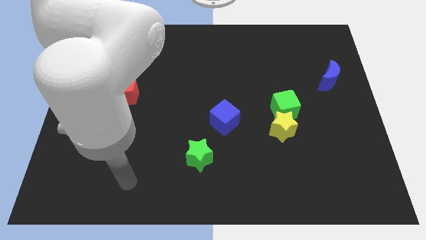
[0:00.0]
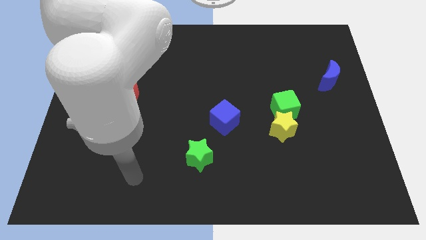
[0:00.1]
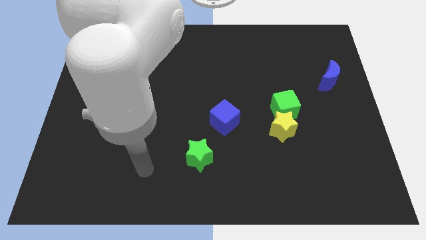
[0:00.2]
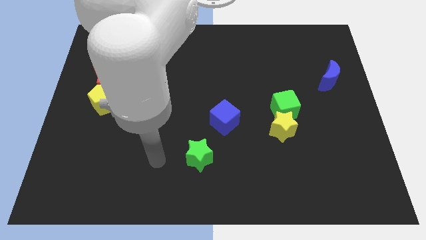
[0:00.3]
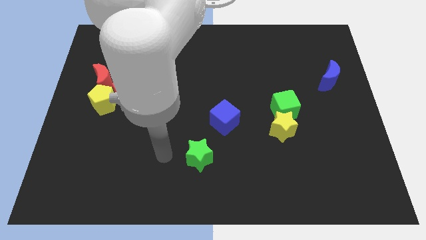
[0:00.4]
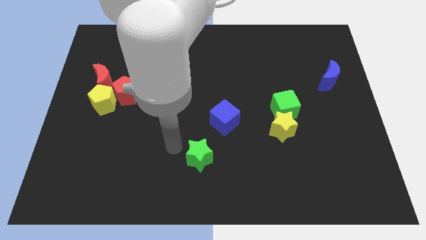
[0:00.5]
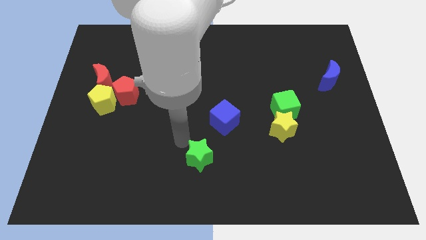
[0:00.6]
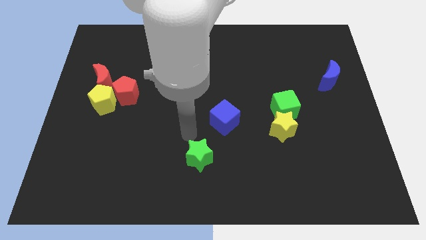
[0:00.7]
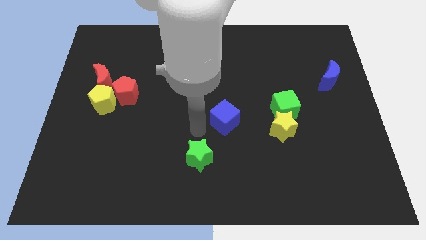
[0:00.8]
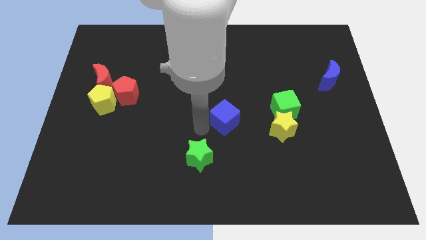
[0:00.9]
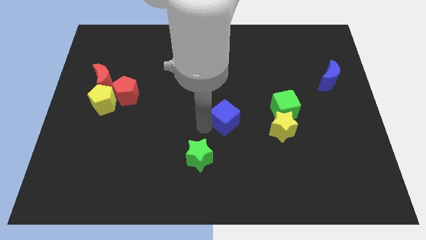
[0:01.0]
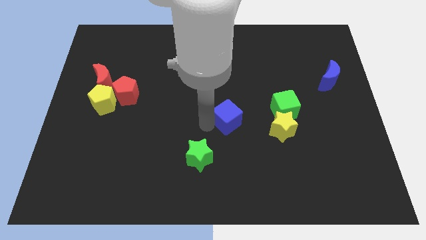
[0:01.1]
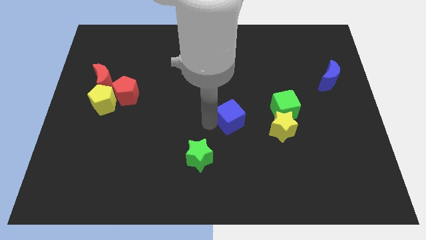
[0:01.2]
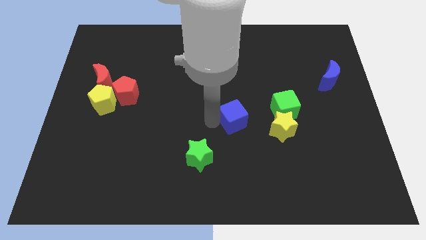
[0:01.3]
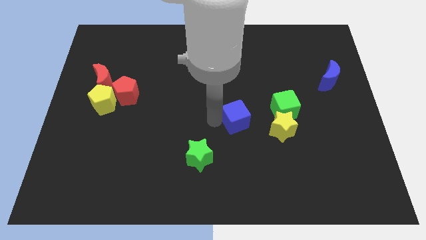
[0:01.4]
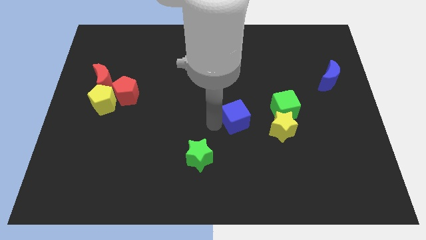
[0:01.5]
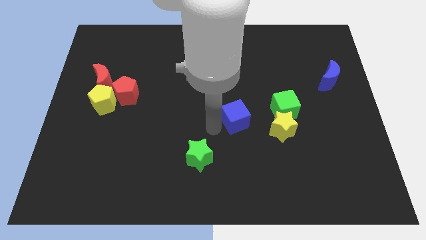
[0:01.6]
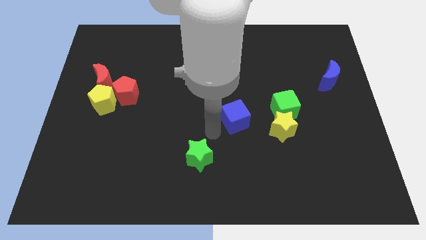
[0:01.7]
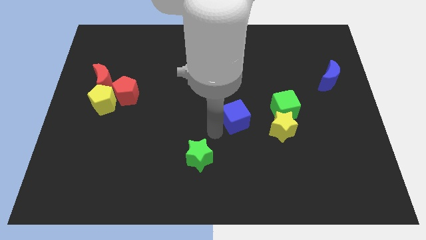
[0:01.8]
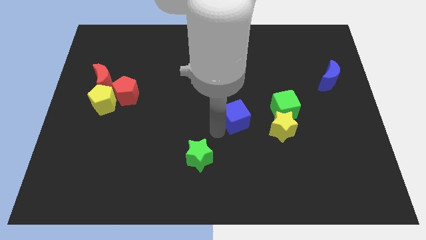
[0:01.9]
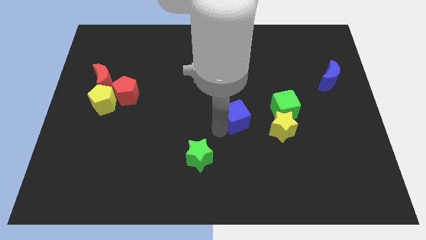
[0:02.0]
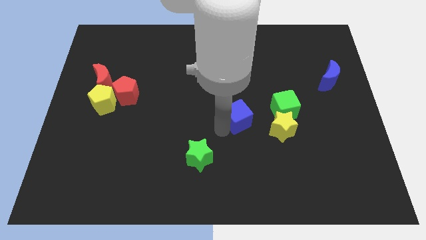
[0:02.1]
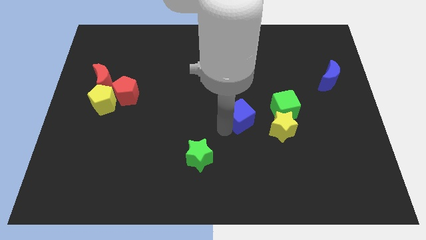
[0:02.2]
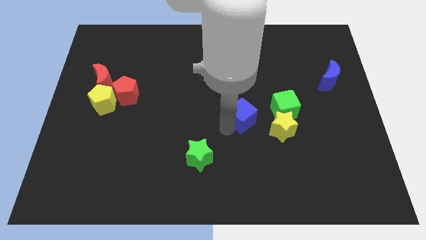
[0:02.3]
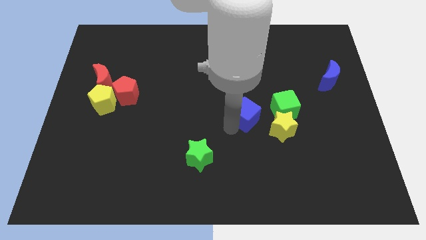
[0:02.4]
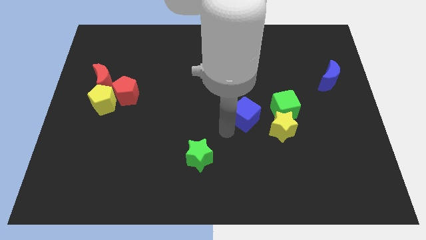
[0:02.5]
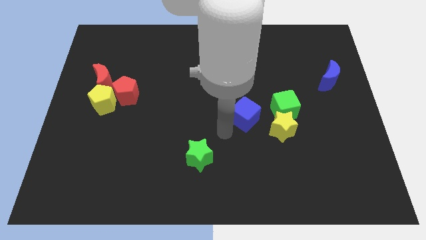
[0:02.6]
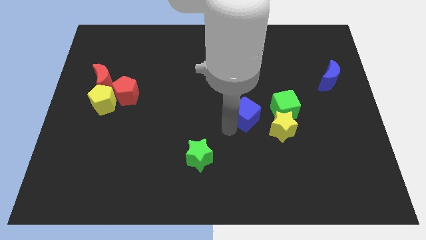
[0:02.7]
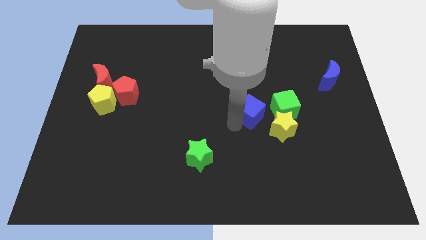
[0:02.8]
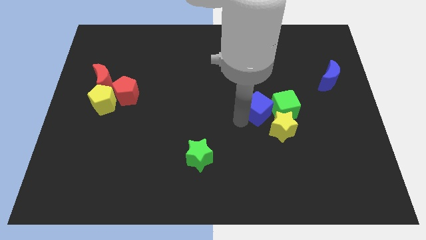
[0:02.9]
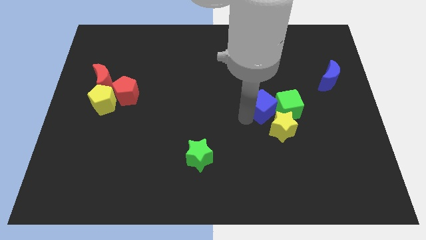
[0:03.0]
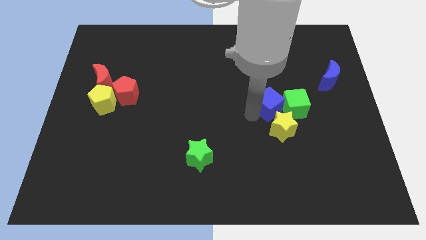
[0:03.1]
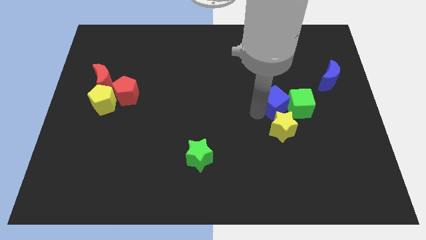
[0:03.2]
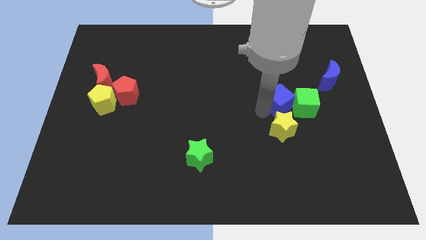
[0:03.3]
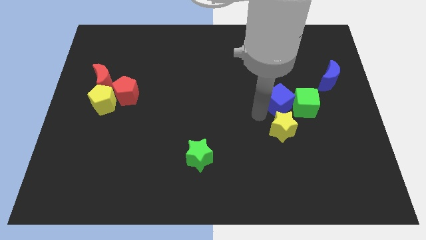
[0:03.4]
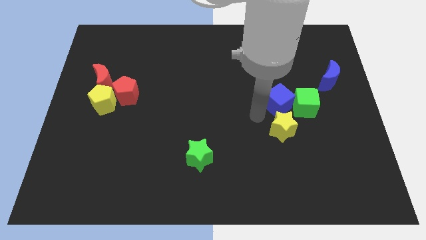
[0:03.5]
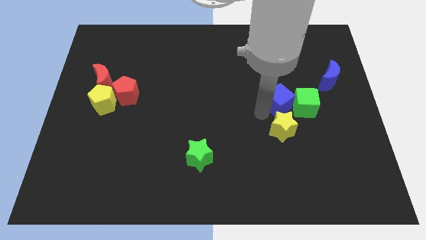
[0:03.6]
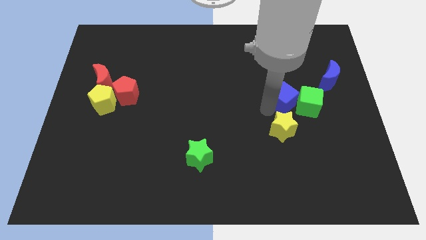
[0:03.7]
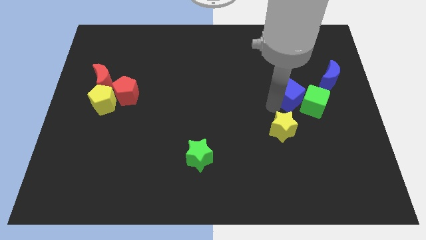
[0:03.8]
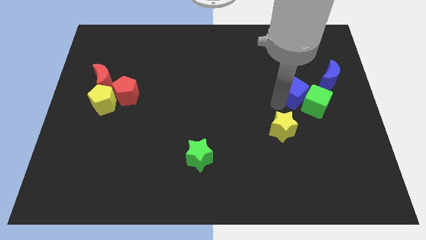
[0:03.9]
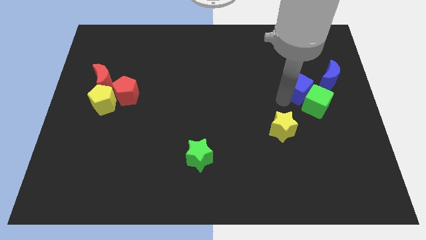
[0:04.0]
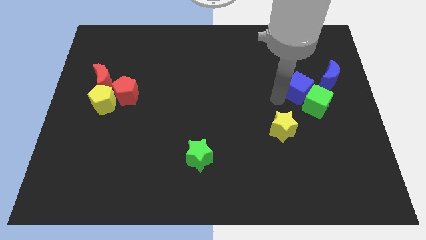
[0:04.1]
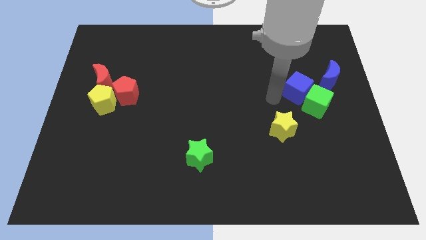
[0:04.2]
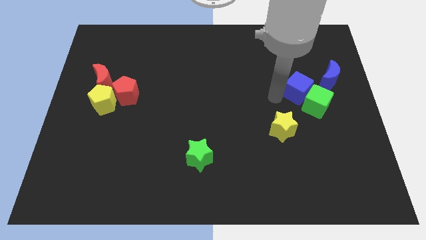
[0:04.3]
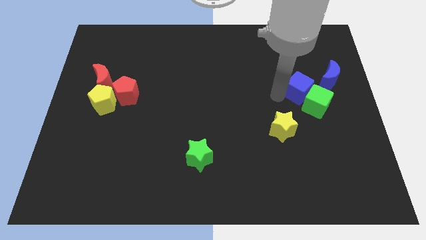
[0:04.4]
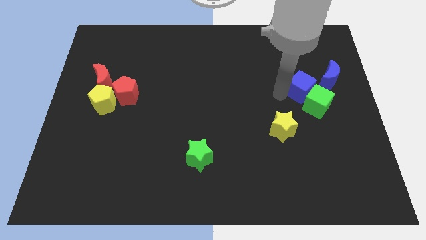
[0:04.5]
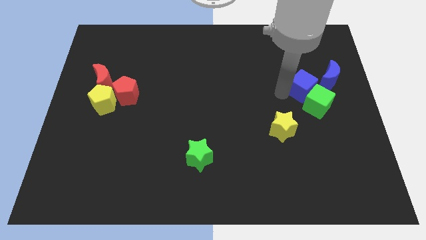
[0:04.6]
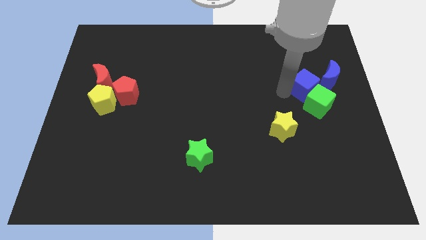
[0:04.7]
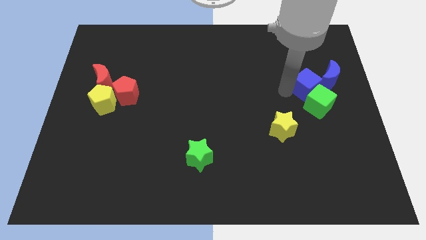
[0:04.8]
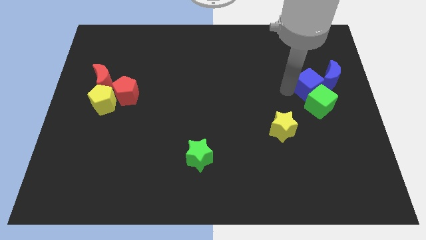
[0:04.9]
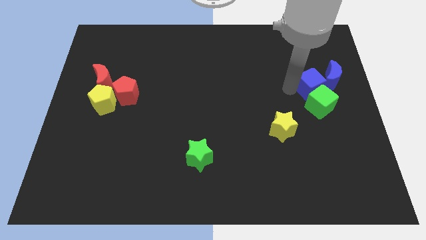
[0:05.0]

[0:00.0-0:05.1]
put the blue cube to the blue moon

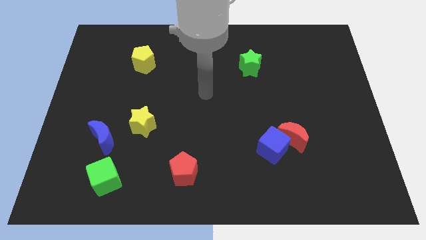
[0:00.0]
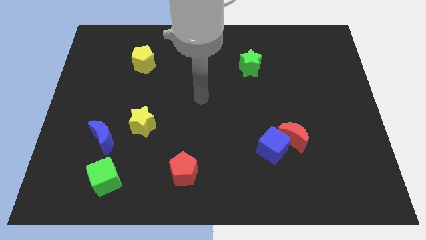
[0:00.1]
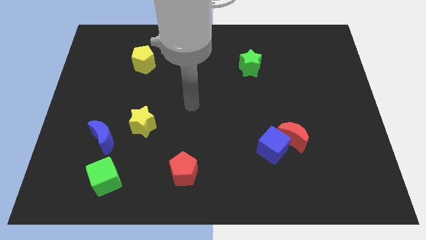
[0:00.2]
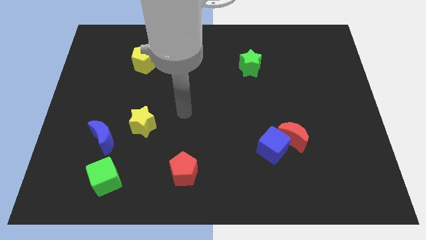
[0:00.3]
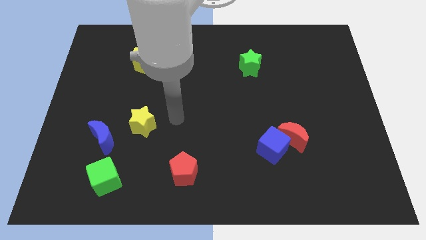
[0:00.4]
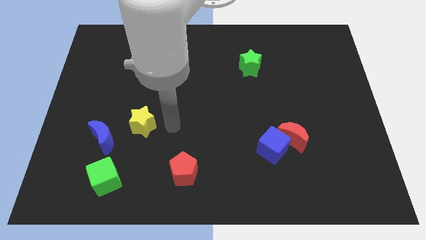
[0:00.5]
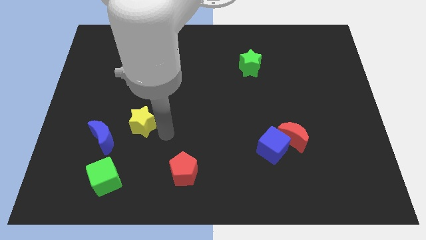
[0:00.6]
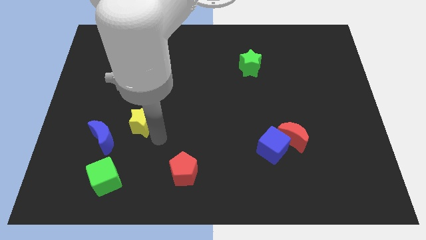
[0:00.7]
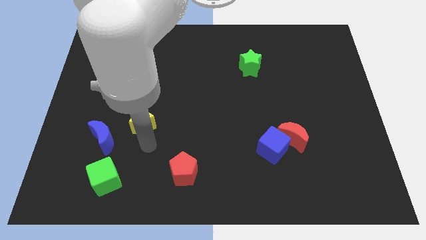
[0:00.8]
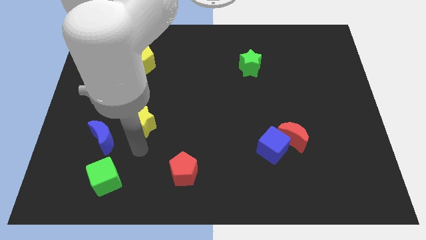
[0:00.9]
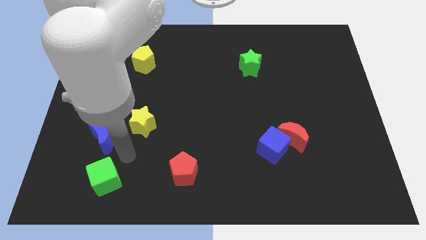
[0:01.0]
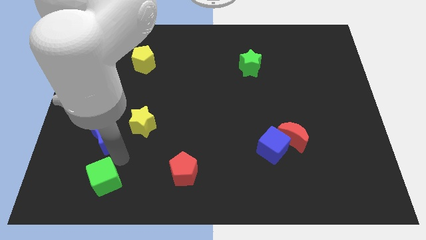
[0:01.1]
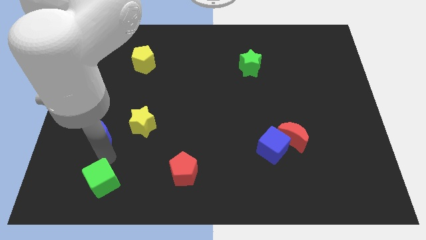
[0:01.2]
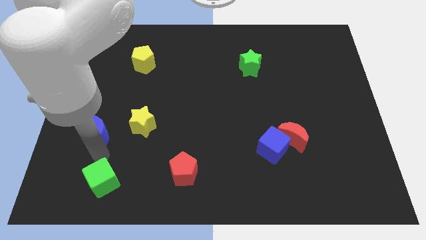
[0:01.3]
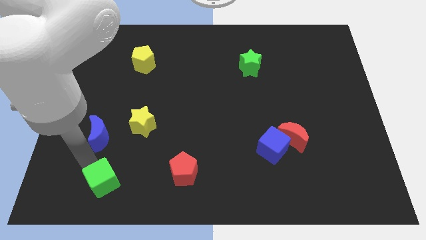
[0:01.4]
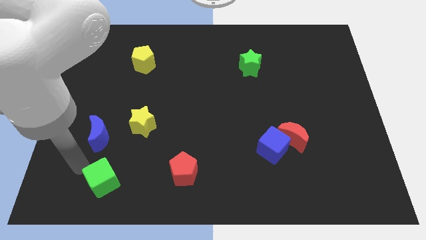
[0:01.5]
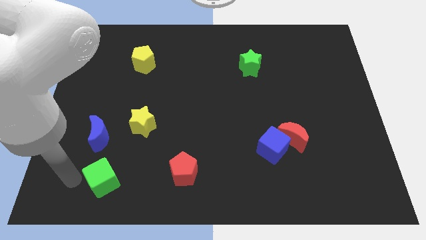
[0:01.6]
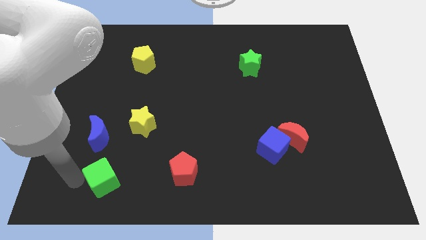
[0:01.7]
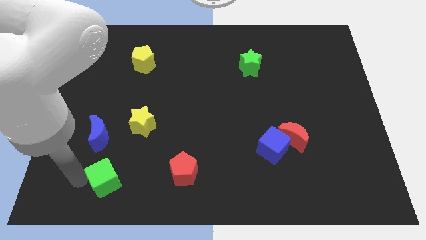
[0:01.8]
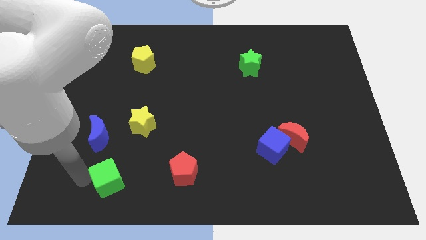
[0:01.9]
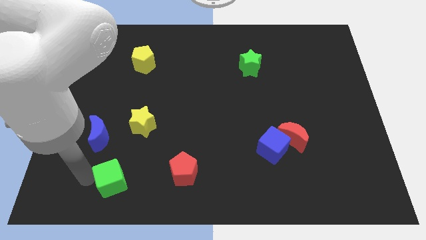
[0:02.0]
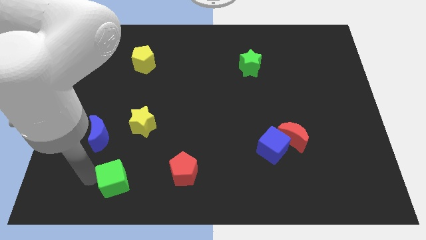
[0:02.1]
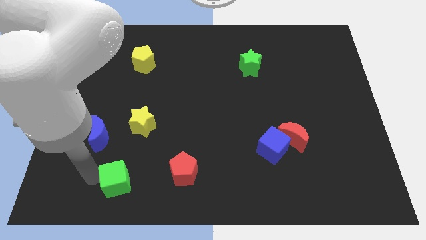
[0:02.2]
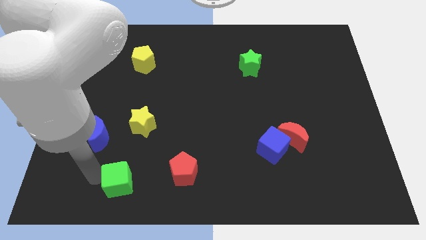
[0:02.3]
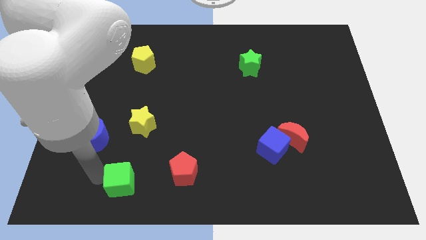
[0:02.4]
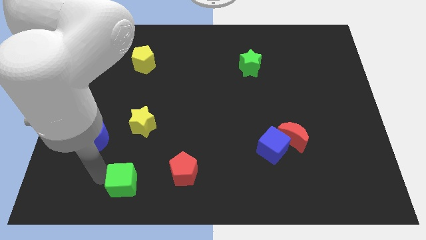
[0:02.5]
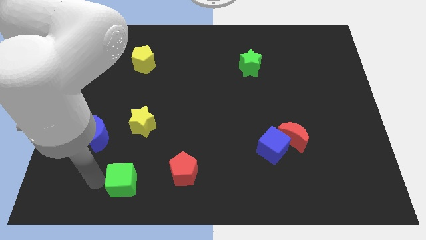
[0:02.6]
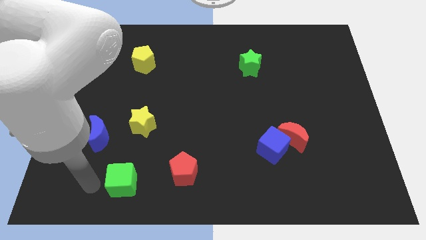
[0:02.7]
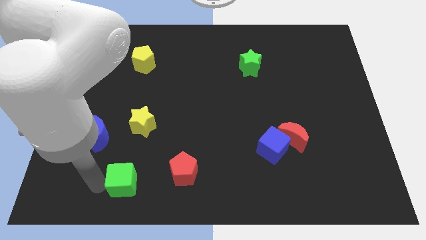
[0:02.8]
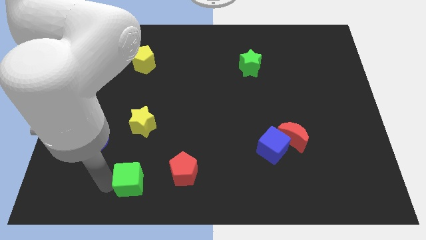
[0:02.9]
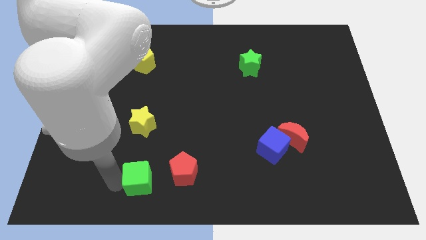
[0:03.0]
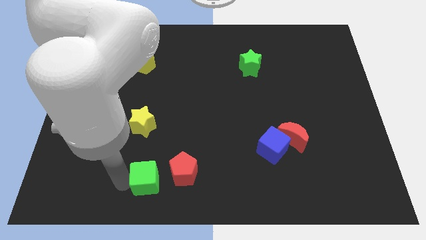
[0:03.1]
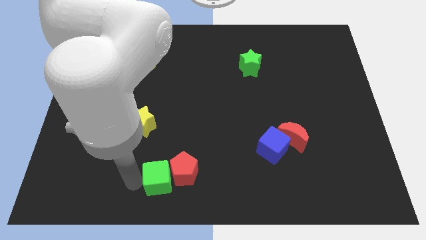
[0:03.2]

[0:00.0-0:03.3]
slide the green cube close to the red pentagon
